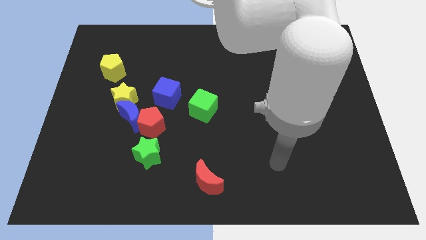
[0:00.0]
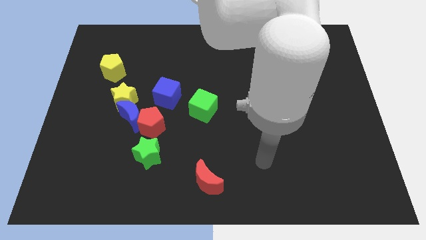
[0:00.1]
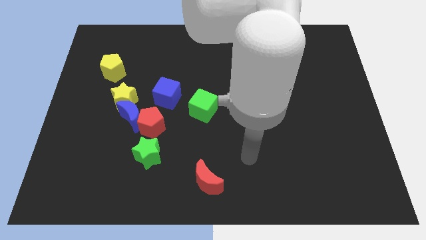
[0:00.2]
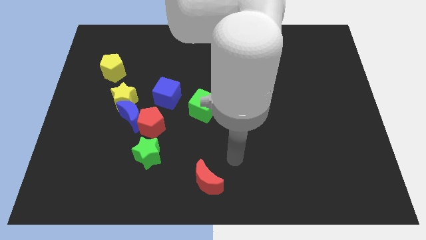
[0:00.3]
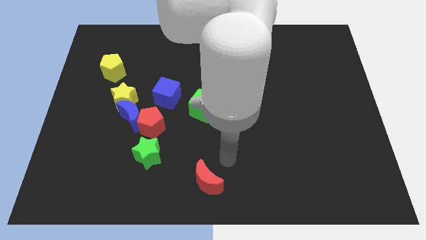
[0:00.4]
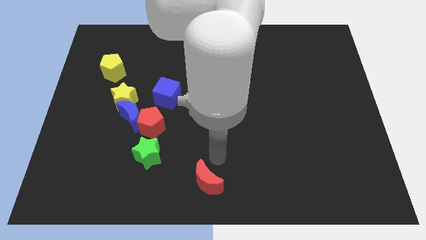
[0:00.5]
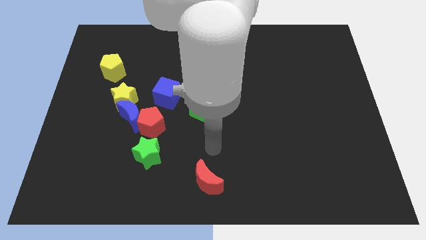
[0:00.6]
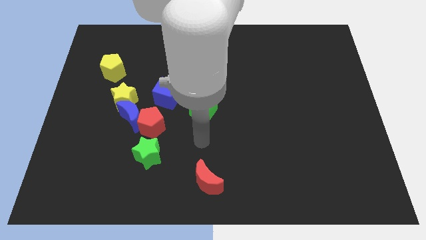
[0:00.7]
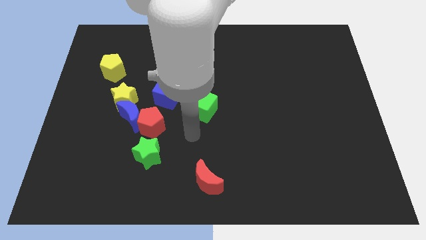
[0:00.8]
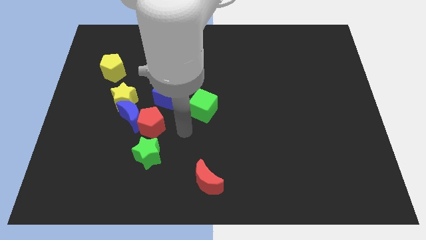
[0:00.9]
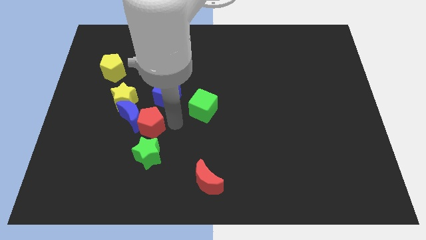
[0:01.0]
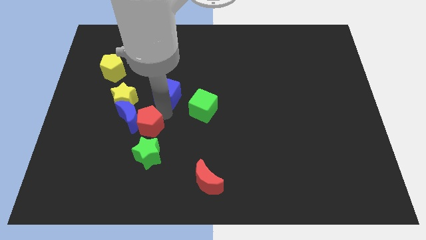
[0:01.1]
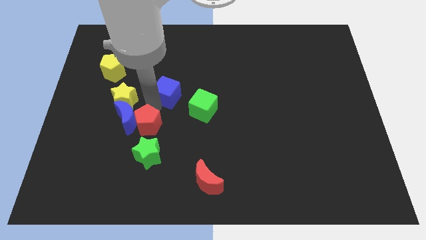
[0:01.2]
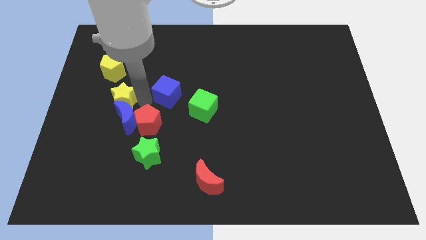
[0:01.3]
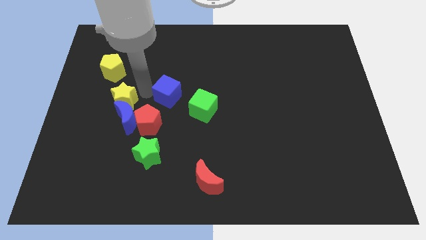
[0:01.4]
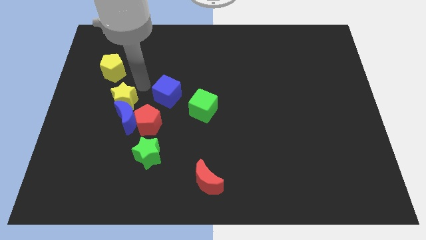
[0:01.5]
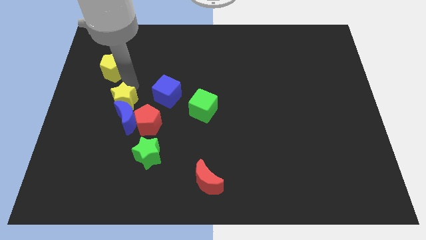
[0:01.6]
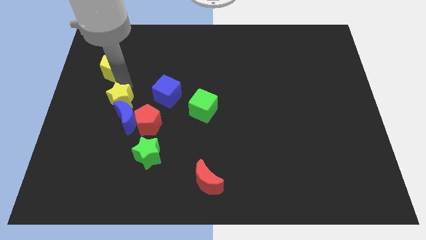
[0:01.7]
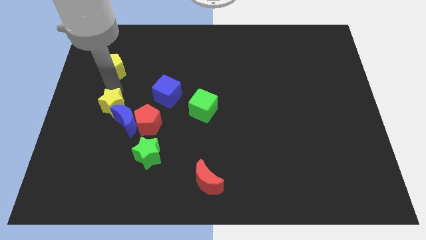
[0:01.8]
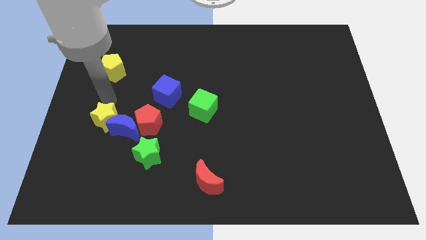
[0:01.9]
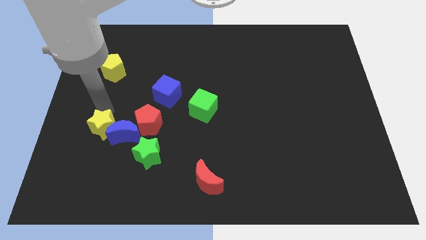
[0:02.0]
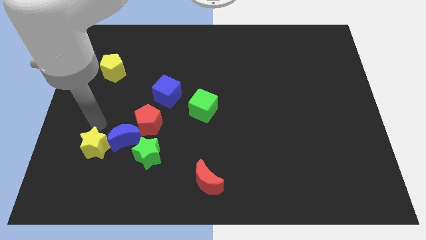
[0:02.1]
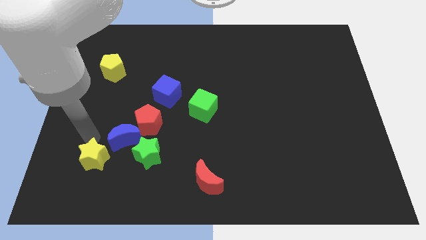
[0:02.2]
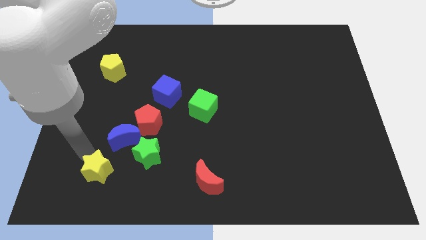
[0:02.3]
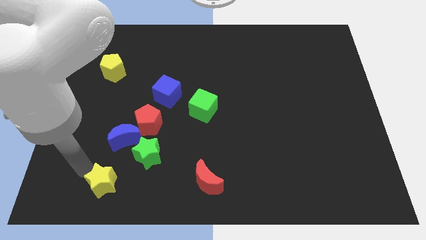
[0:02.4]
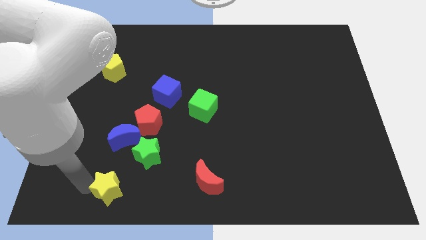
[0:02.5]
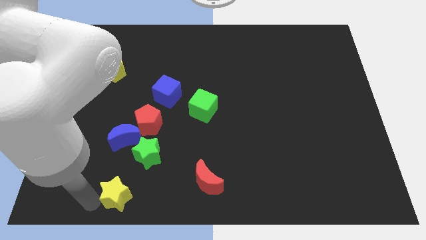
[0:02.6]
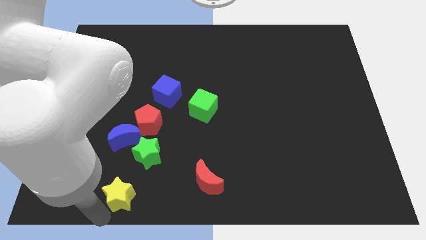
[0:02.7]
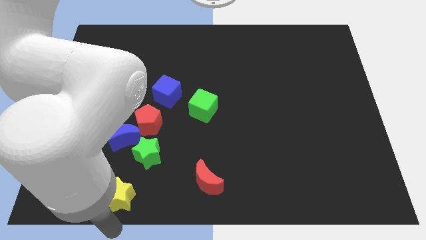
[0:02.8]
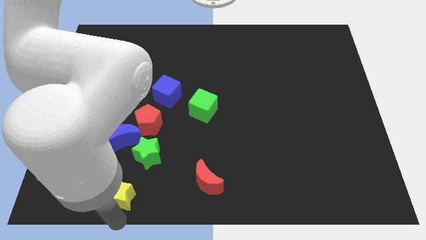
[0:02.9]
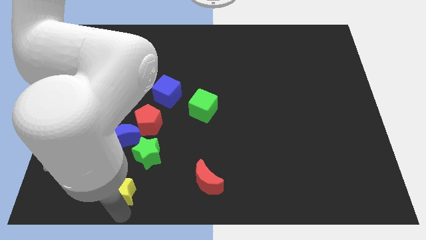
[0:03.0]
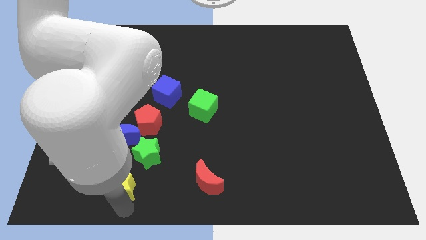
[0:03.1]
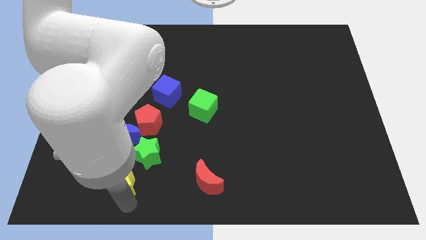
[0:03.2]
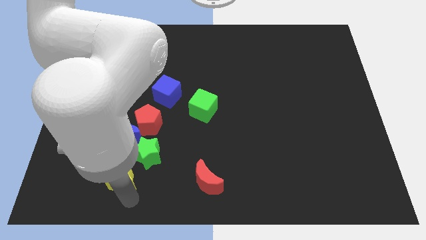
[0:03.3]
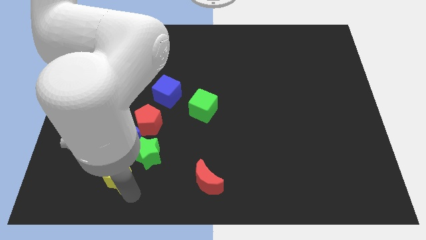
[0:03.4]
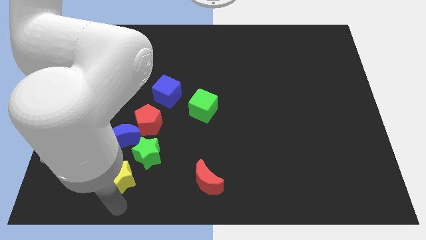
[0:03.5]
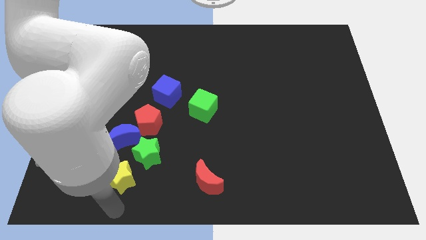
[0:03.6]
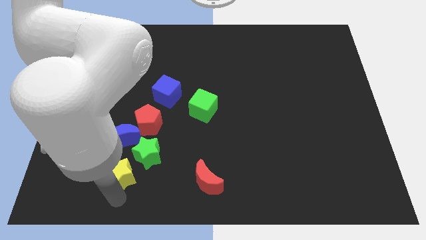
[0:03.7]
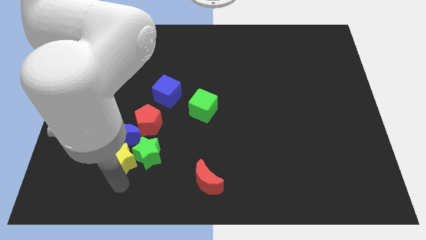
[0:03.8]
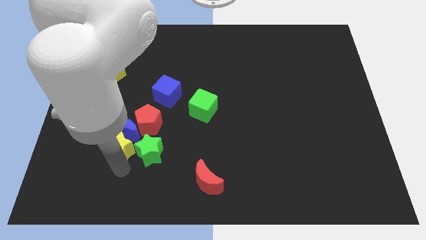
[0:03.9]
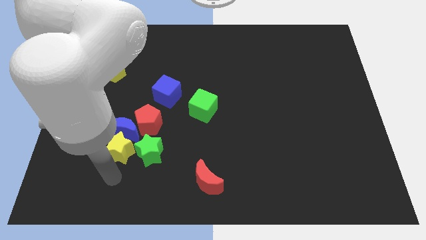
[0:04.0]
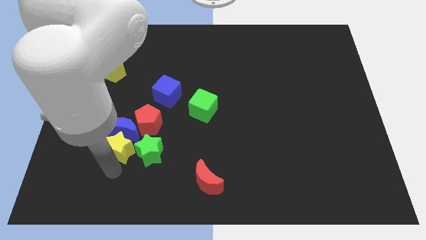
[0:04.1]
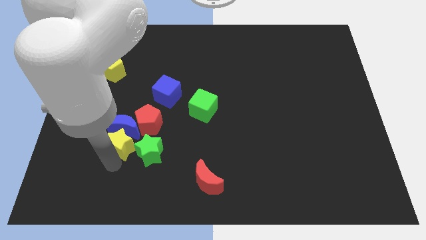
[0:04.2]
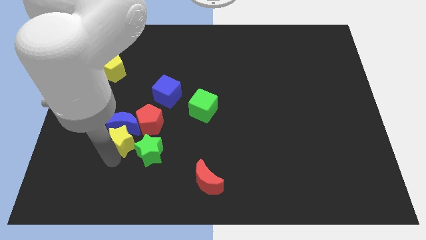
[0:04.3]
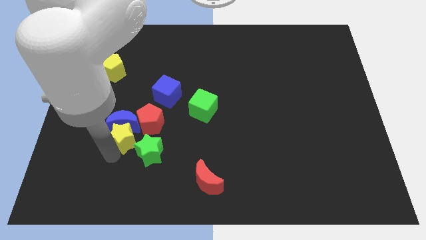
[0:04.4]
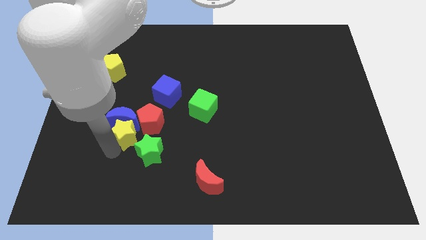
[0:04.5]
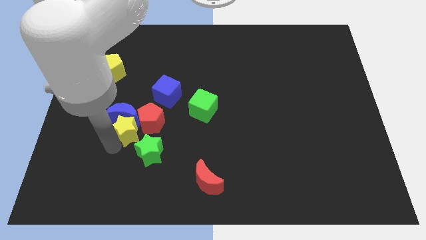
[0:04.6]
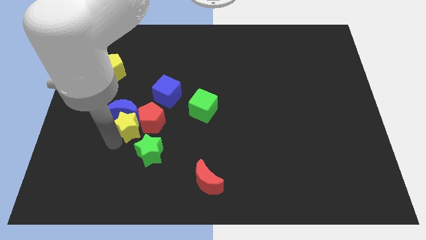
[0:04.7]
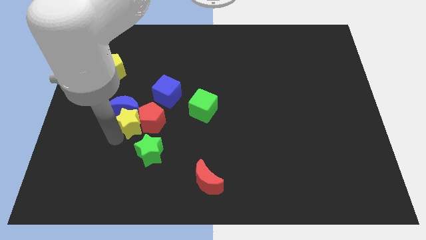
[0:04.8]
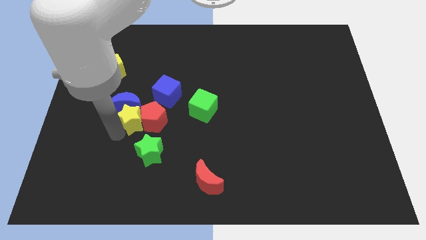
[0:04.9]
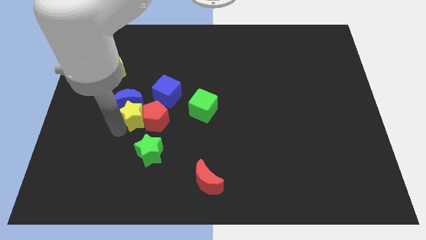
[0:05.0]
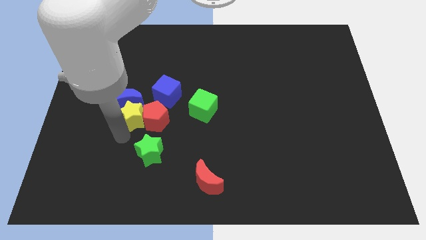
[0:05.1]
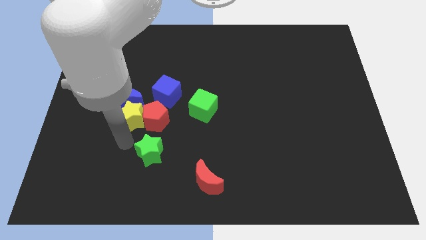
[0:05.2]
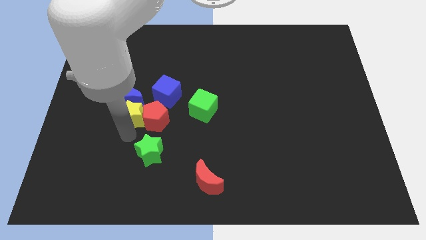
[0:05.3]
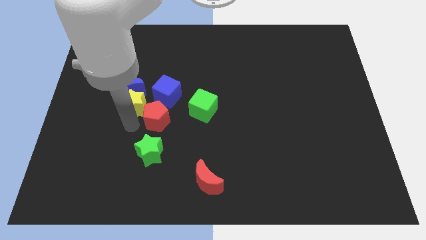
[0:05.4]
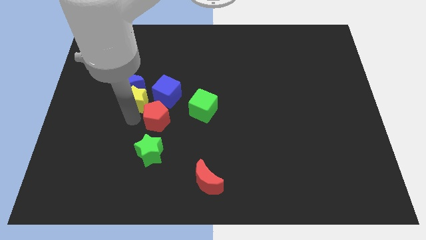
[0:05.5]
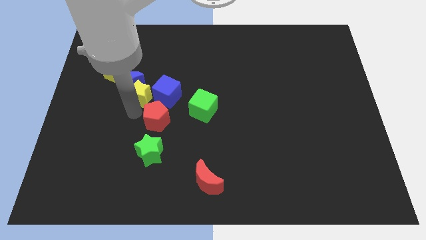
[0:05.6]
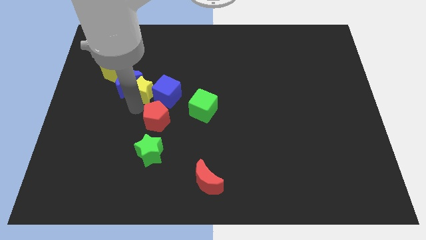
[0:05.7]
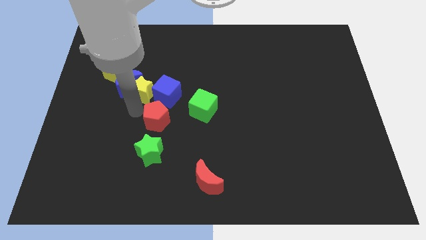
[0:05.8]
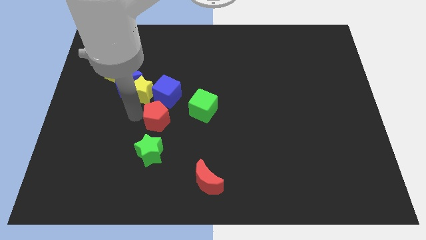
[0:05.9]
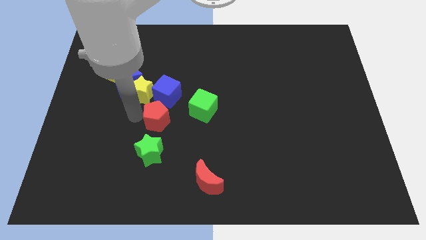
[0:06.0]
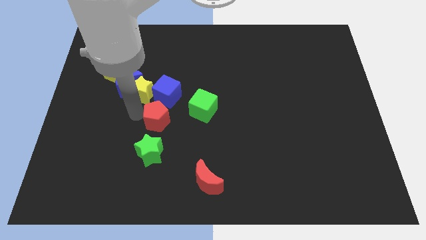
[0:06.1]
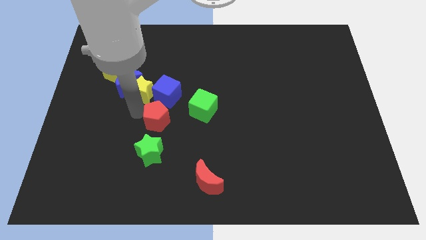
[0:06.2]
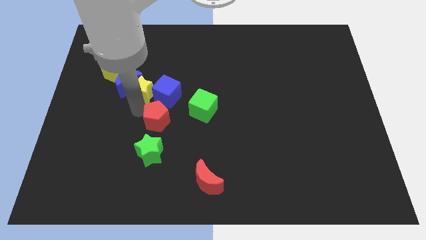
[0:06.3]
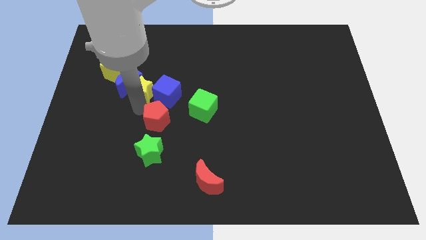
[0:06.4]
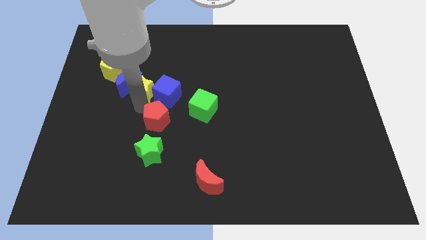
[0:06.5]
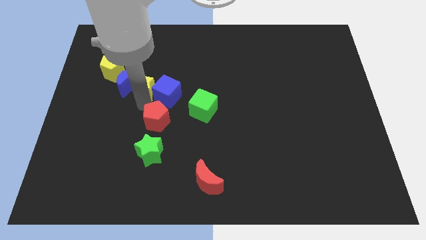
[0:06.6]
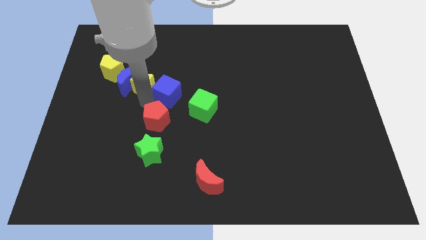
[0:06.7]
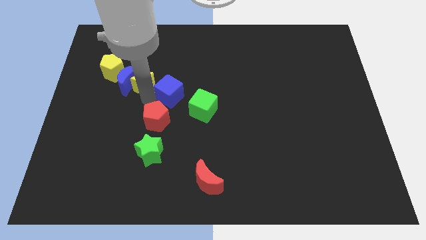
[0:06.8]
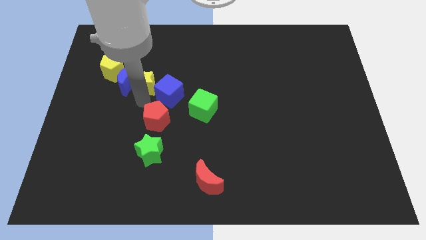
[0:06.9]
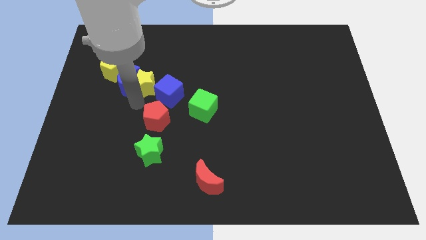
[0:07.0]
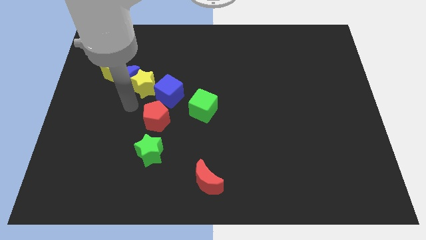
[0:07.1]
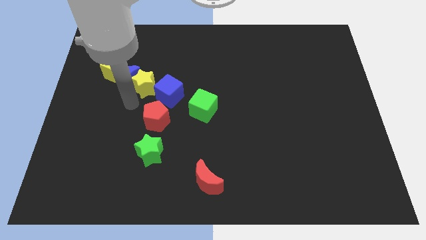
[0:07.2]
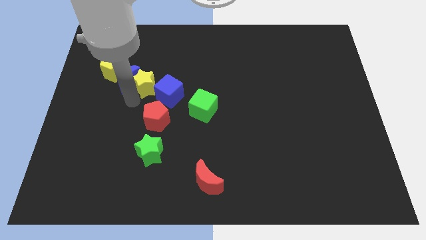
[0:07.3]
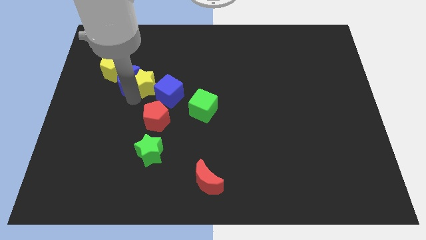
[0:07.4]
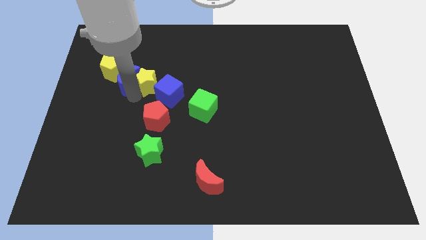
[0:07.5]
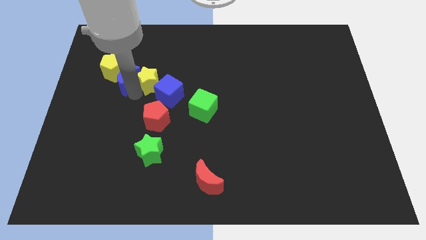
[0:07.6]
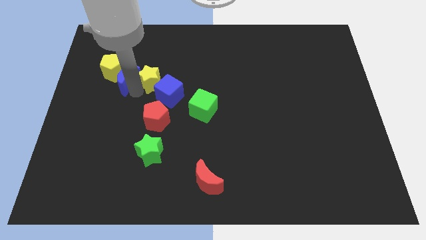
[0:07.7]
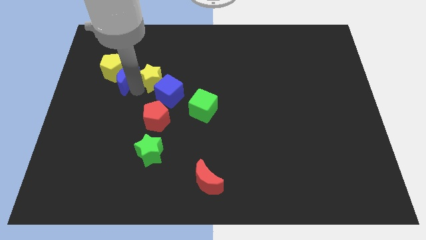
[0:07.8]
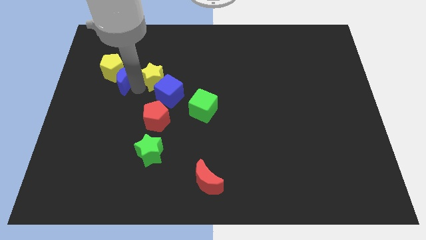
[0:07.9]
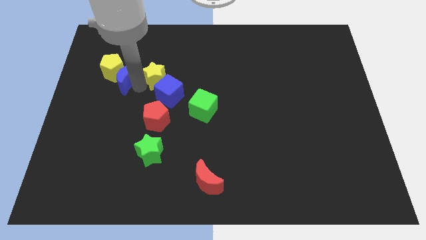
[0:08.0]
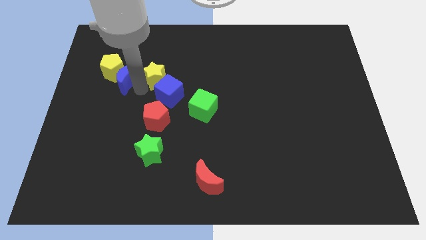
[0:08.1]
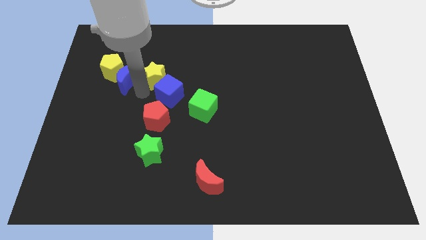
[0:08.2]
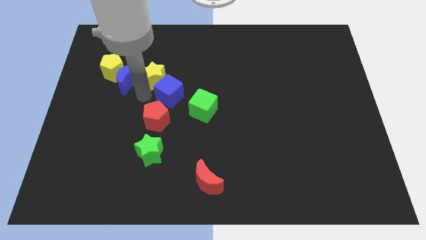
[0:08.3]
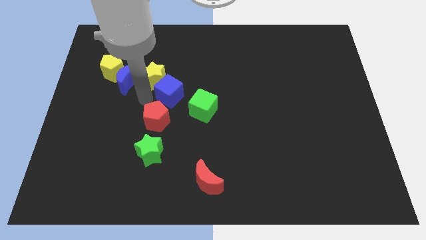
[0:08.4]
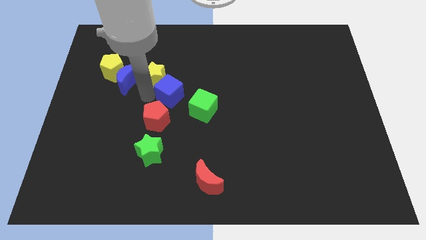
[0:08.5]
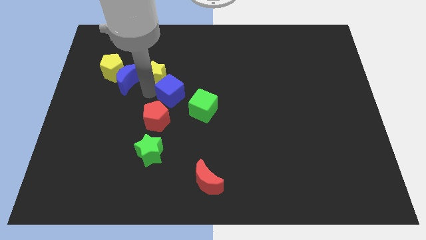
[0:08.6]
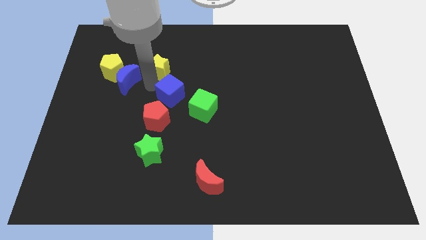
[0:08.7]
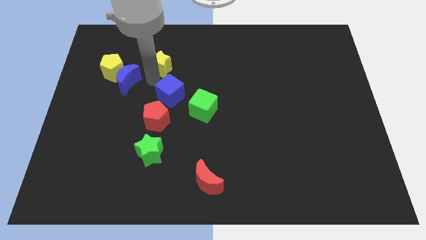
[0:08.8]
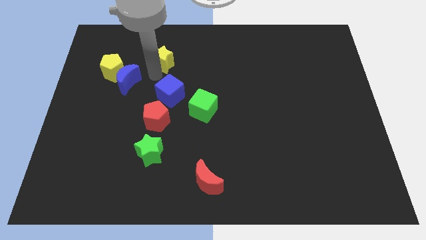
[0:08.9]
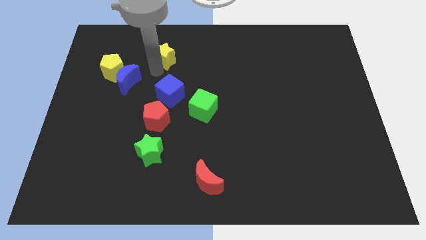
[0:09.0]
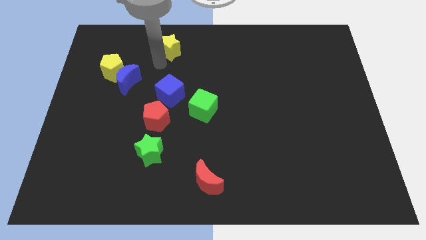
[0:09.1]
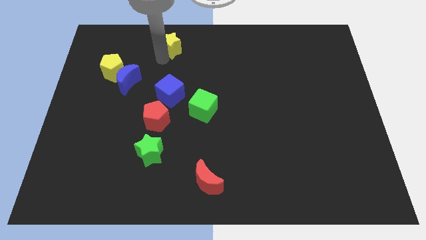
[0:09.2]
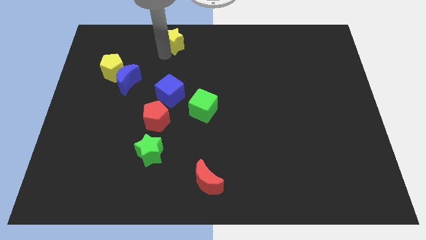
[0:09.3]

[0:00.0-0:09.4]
slide the yellow star to the top side
